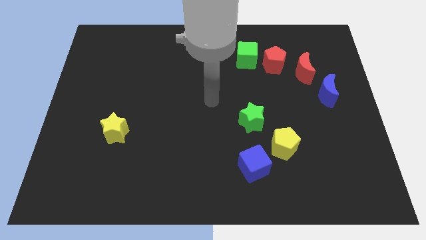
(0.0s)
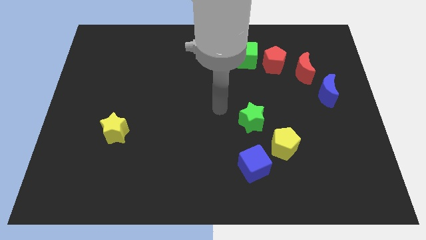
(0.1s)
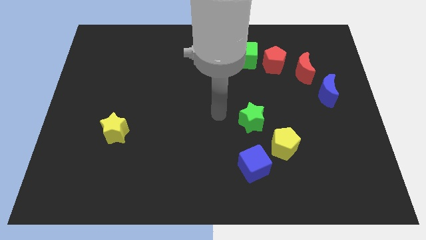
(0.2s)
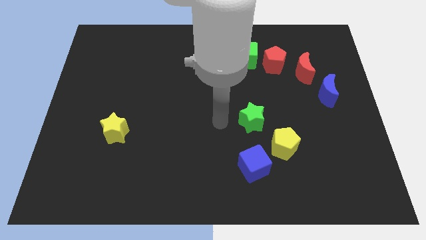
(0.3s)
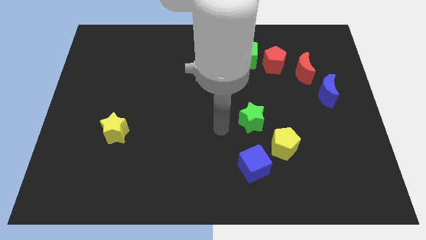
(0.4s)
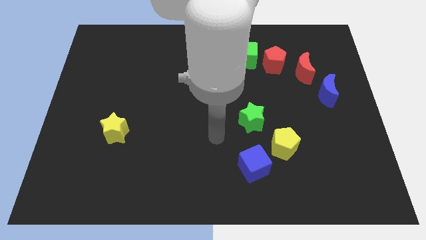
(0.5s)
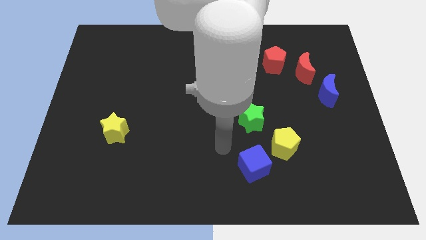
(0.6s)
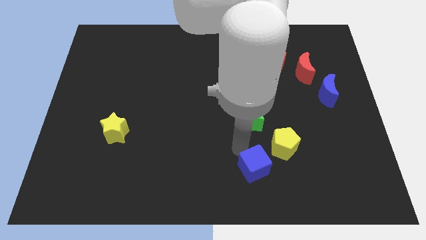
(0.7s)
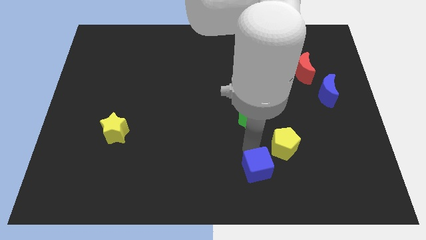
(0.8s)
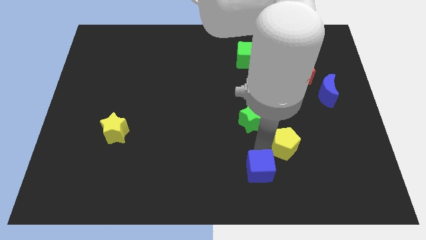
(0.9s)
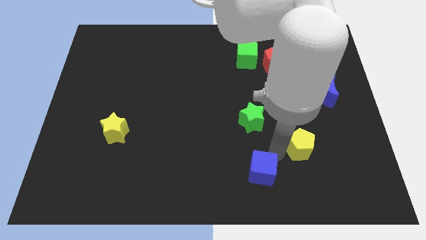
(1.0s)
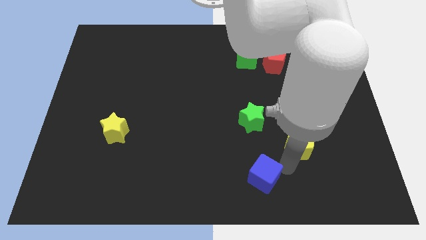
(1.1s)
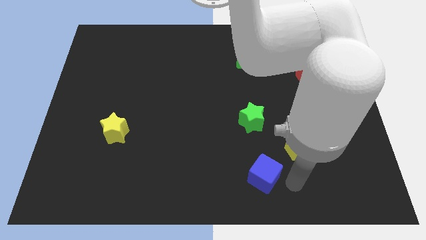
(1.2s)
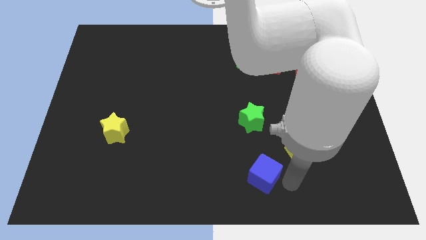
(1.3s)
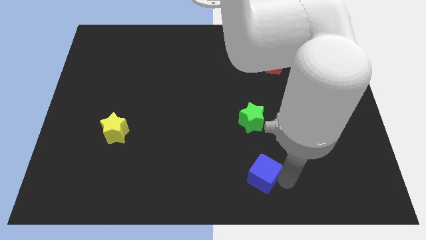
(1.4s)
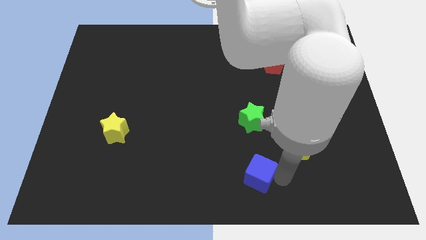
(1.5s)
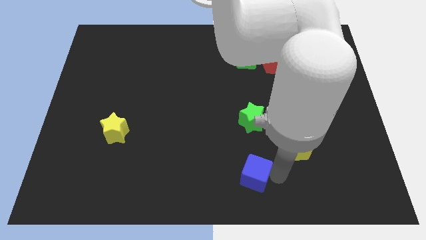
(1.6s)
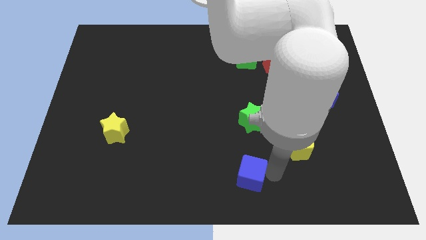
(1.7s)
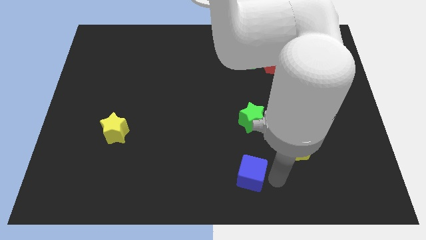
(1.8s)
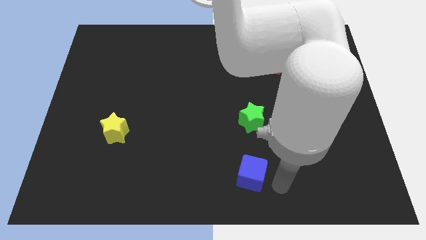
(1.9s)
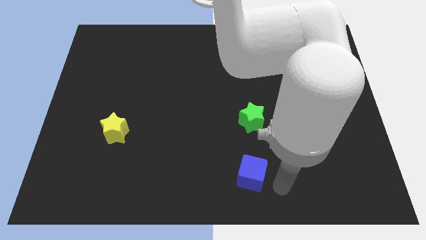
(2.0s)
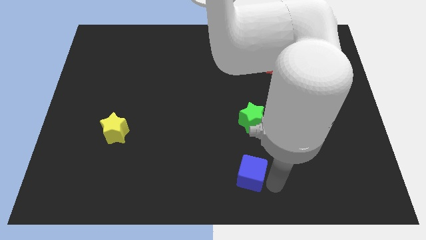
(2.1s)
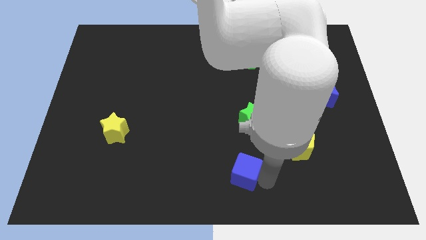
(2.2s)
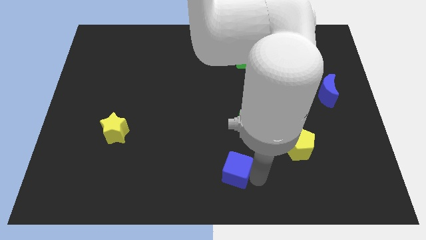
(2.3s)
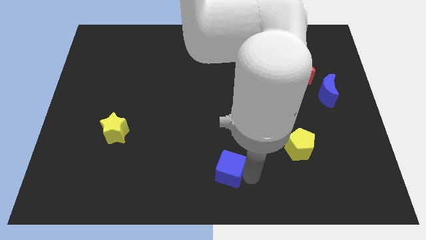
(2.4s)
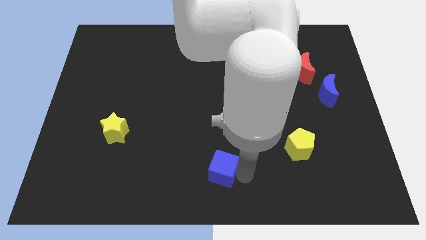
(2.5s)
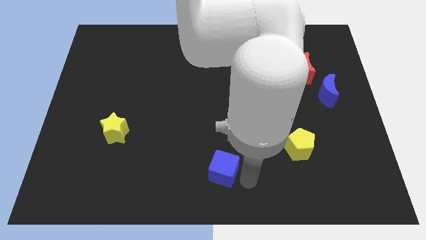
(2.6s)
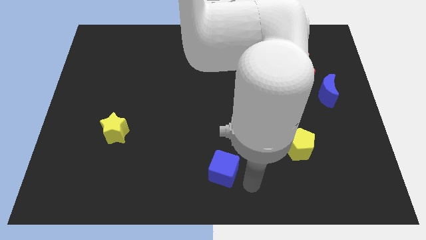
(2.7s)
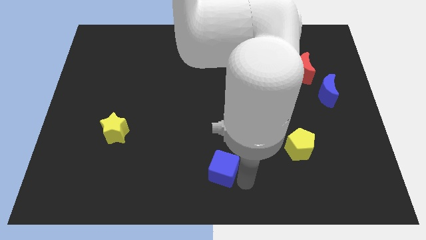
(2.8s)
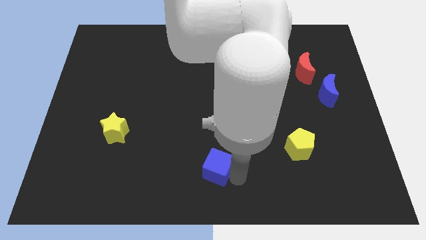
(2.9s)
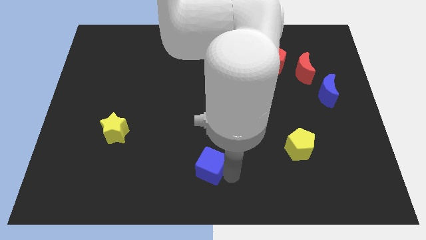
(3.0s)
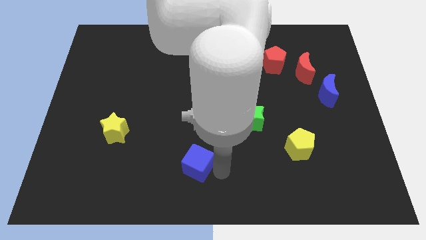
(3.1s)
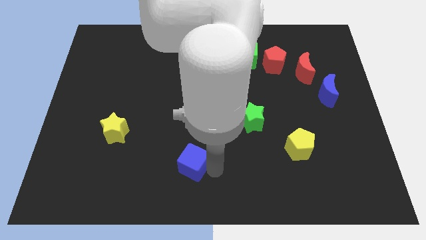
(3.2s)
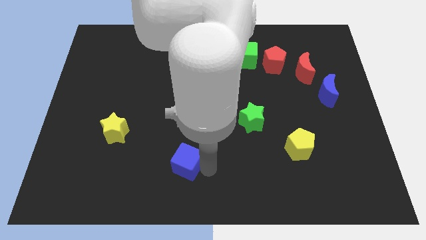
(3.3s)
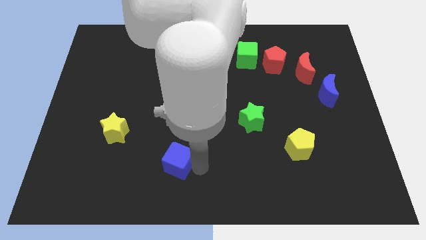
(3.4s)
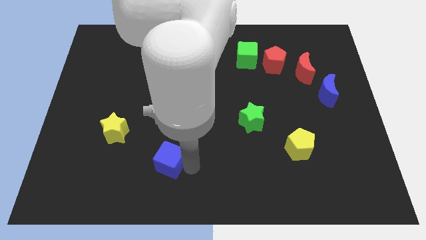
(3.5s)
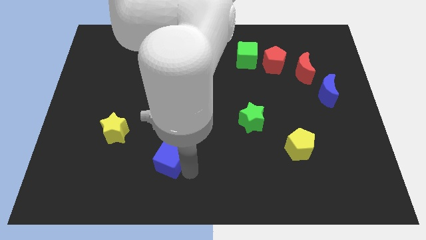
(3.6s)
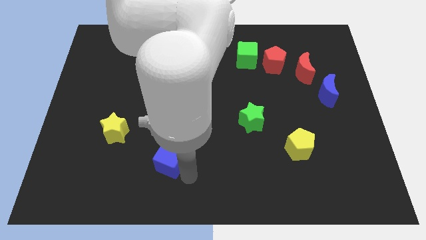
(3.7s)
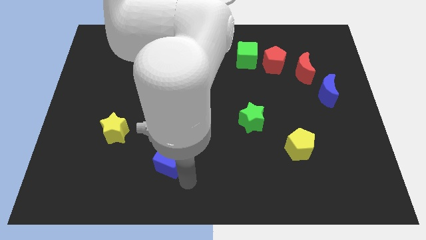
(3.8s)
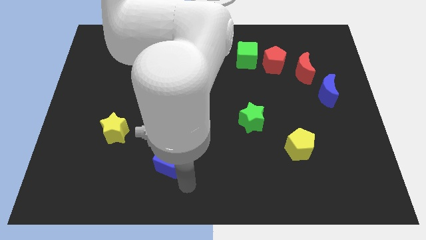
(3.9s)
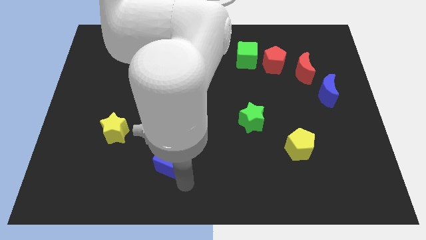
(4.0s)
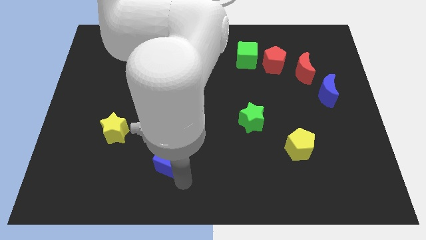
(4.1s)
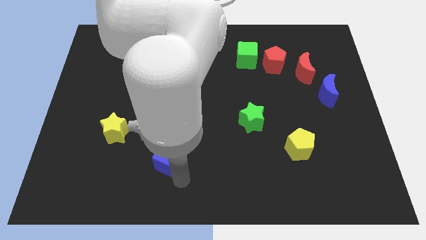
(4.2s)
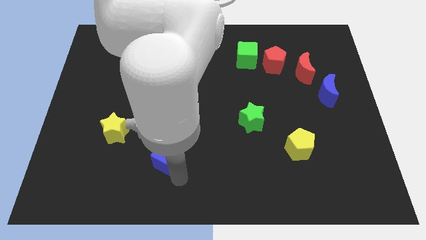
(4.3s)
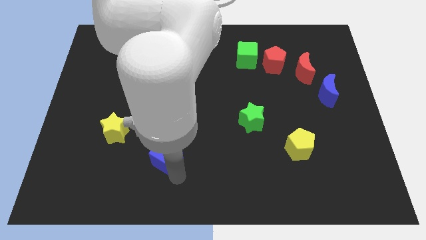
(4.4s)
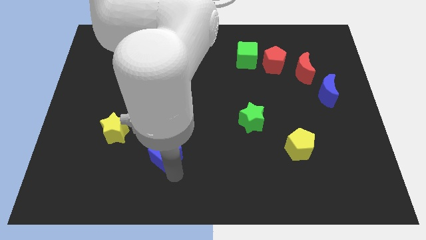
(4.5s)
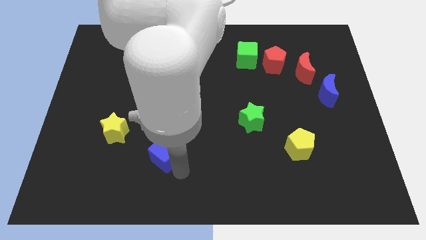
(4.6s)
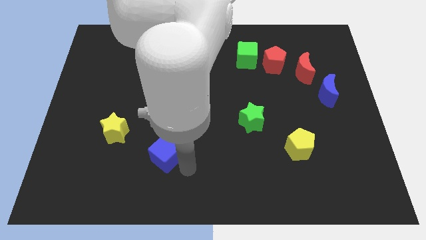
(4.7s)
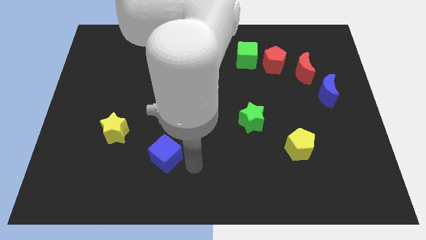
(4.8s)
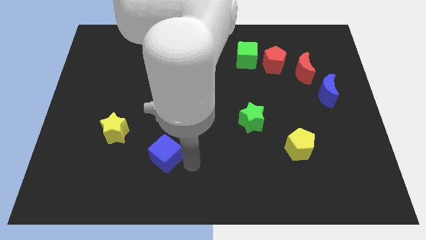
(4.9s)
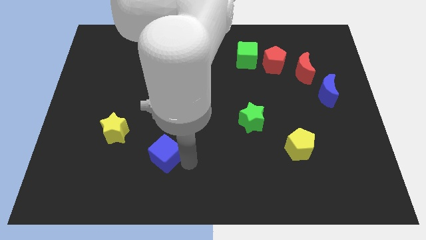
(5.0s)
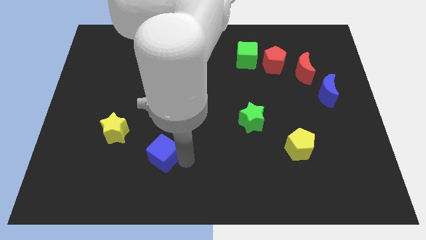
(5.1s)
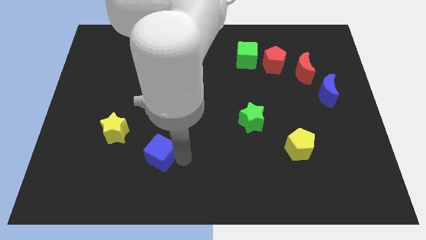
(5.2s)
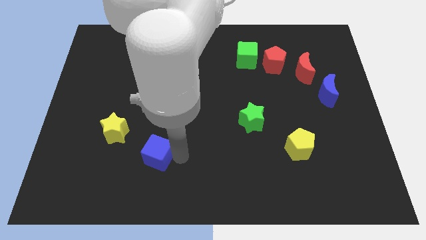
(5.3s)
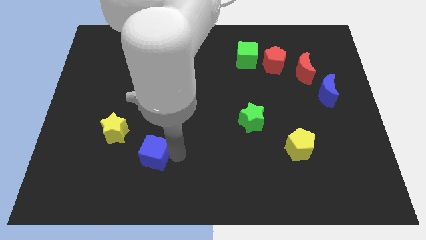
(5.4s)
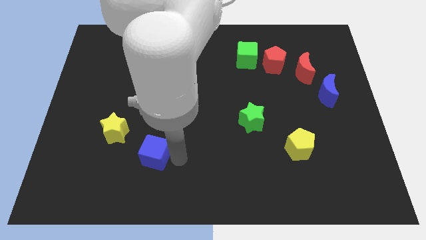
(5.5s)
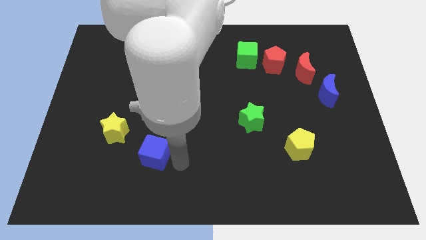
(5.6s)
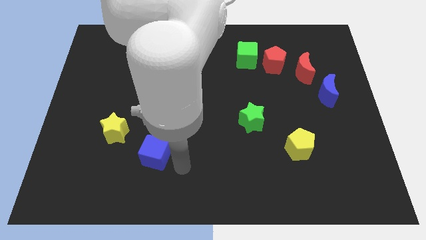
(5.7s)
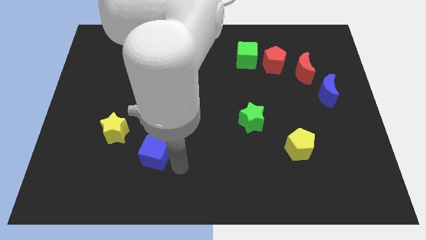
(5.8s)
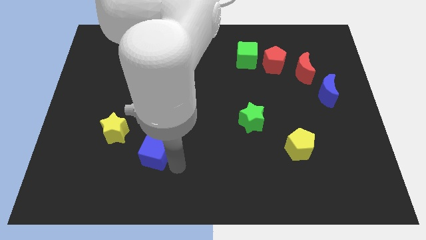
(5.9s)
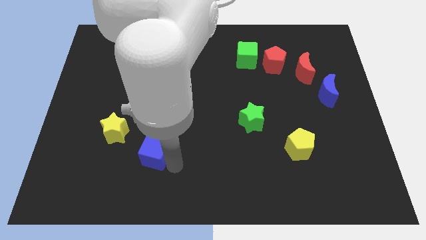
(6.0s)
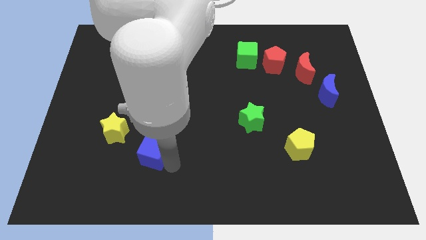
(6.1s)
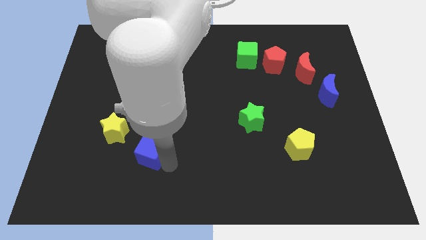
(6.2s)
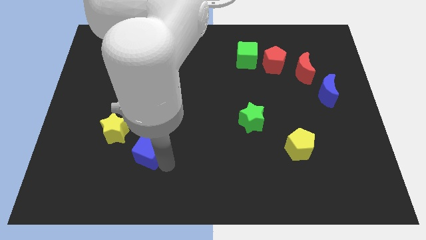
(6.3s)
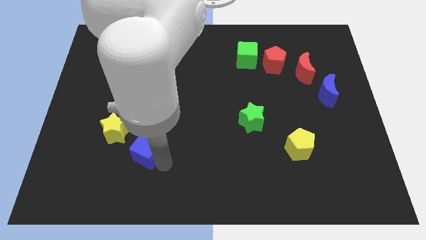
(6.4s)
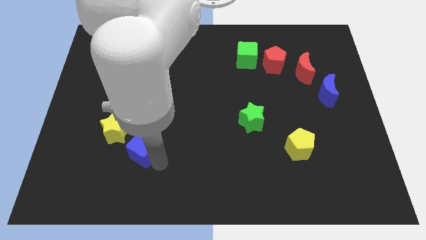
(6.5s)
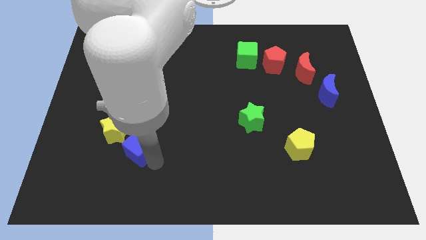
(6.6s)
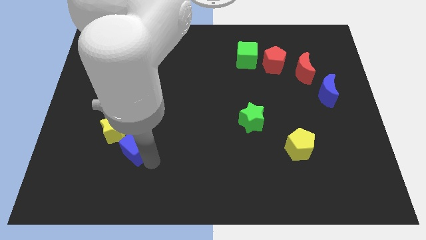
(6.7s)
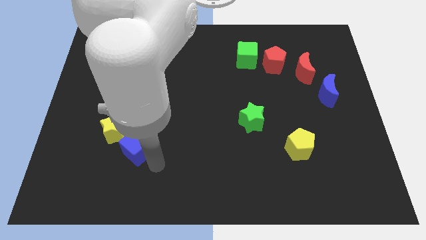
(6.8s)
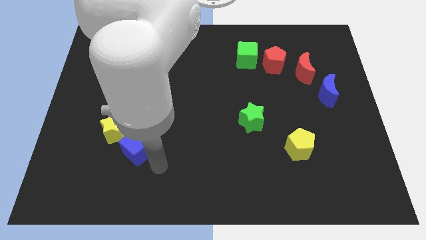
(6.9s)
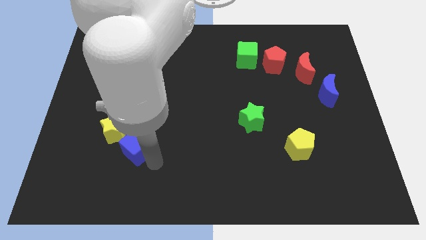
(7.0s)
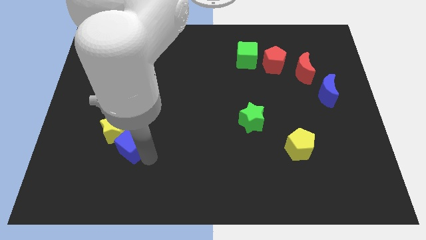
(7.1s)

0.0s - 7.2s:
slide the blue cube next to the yellow star
